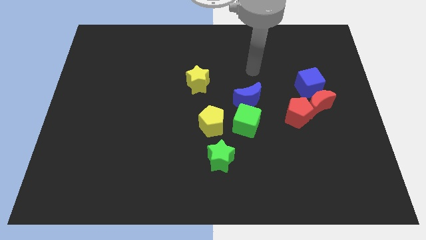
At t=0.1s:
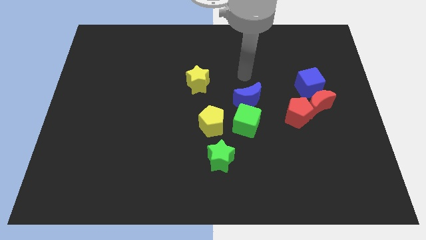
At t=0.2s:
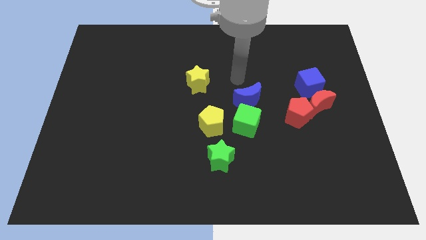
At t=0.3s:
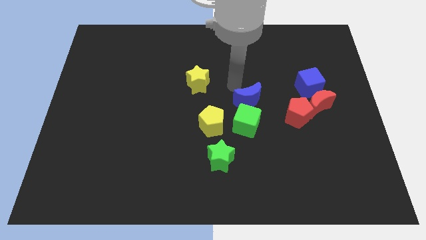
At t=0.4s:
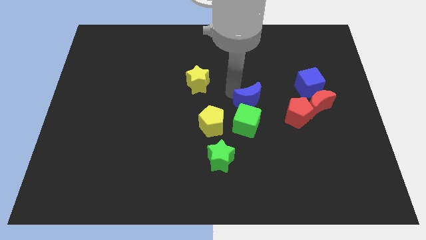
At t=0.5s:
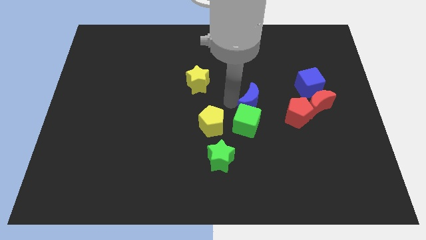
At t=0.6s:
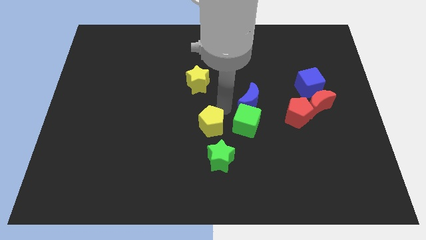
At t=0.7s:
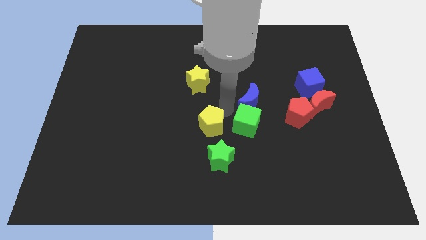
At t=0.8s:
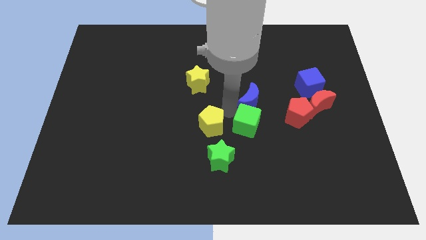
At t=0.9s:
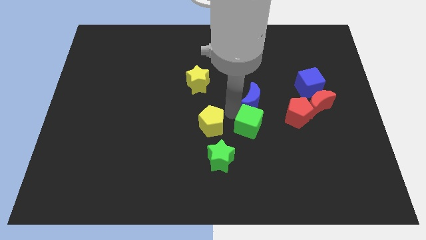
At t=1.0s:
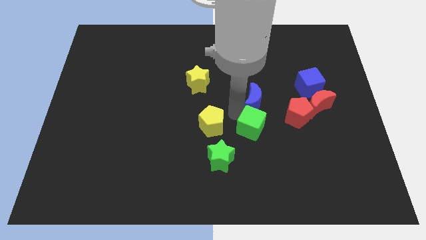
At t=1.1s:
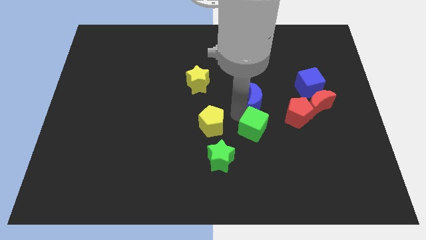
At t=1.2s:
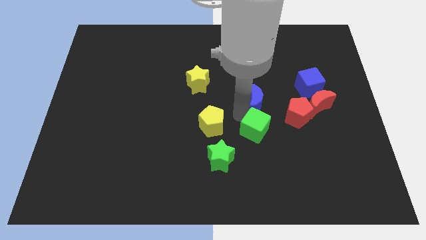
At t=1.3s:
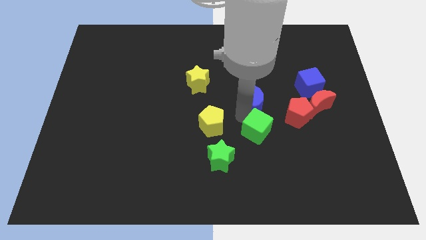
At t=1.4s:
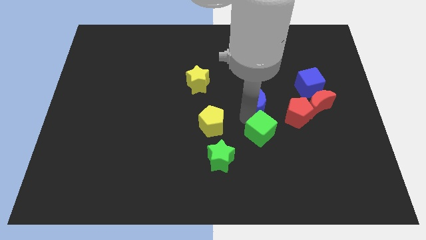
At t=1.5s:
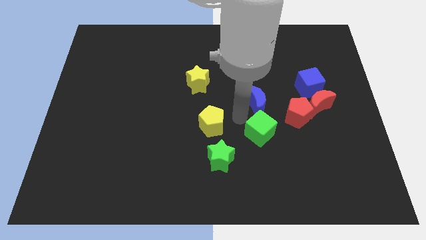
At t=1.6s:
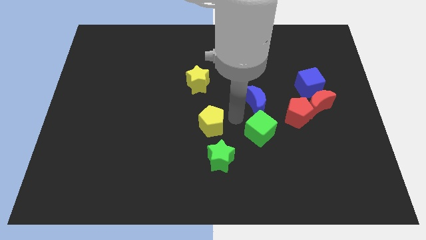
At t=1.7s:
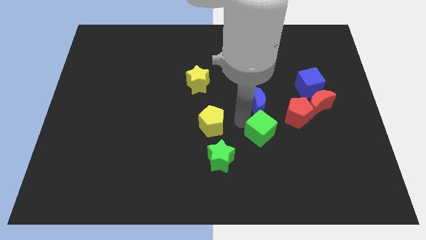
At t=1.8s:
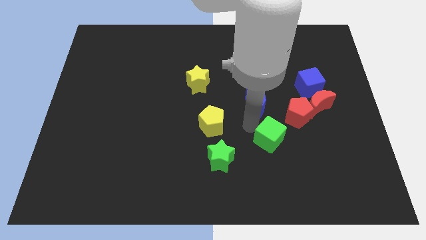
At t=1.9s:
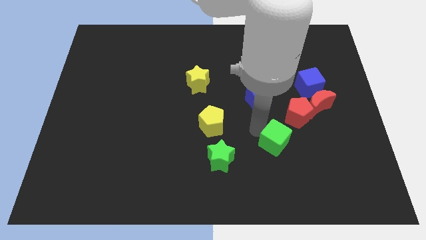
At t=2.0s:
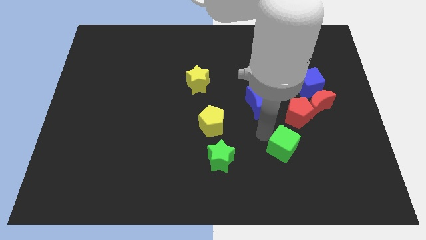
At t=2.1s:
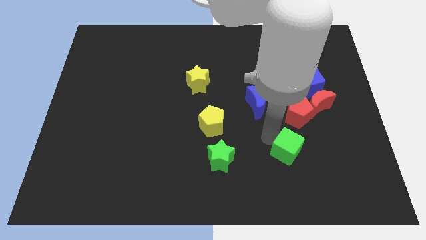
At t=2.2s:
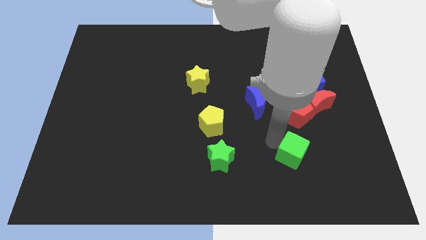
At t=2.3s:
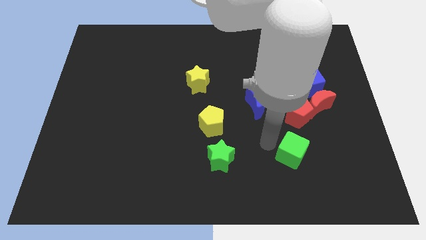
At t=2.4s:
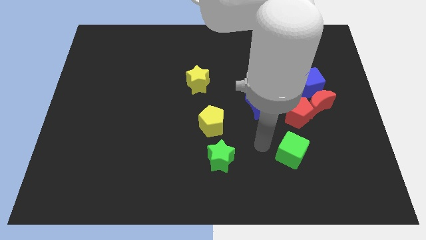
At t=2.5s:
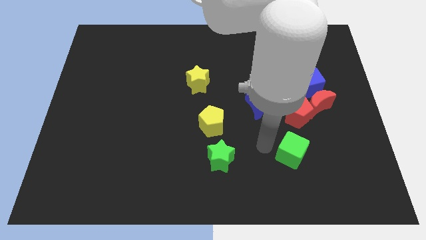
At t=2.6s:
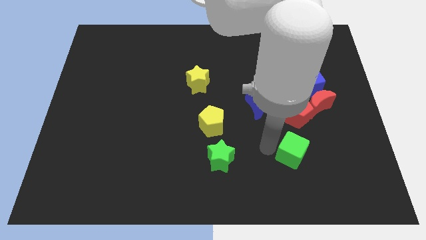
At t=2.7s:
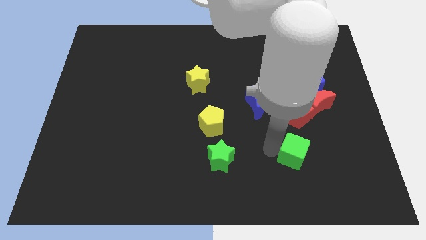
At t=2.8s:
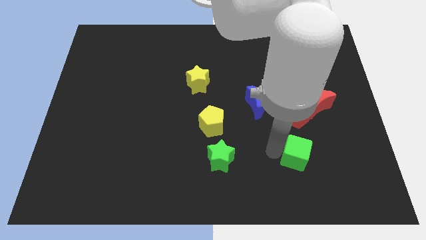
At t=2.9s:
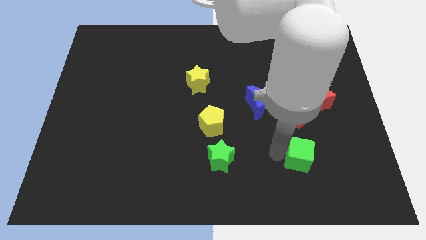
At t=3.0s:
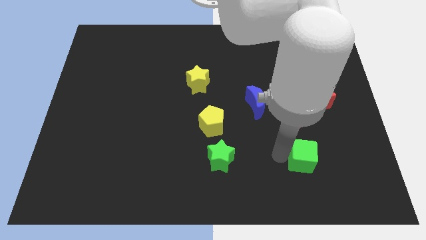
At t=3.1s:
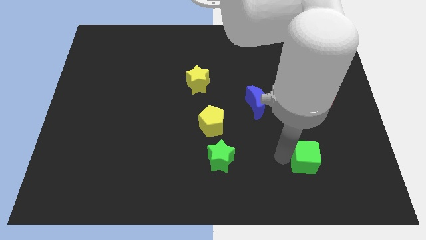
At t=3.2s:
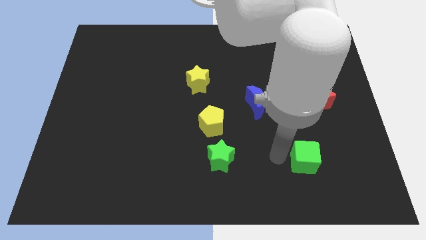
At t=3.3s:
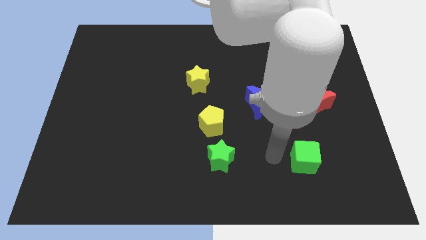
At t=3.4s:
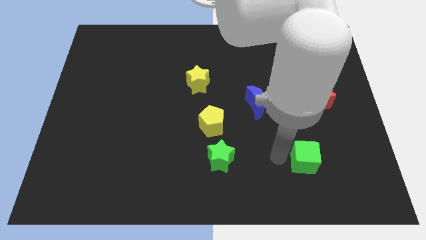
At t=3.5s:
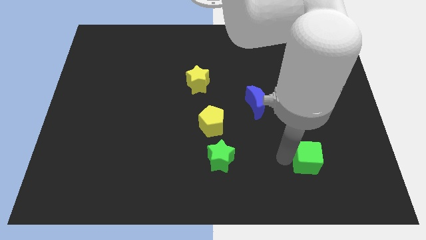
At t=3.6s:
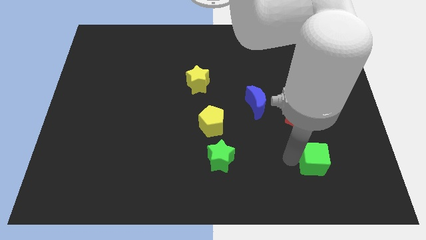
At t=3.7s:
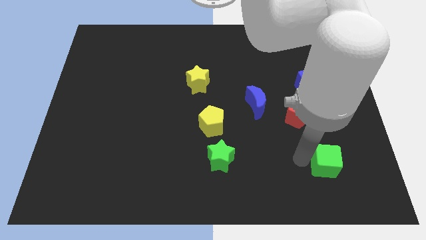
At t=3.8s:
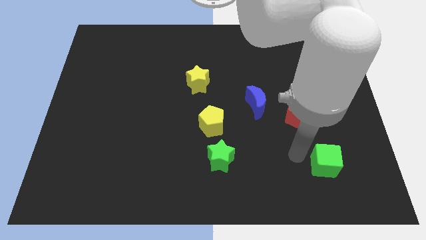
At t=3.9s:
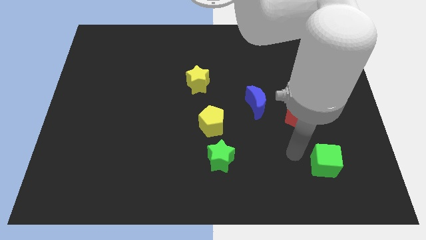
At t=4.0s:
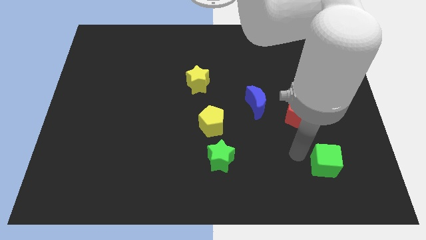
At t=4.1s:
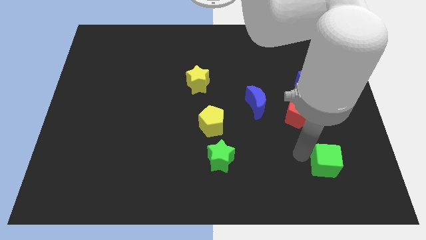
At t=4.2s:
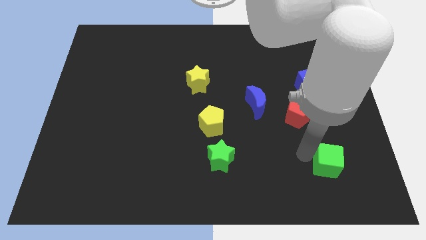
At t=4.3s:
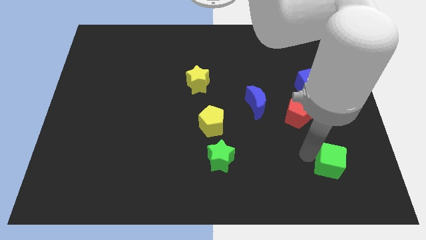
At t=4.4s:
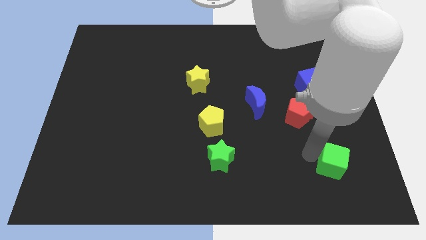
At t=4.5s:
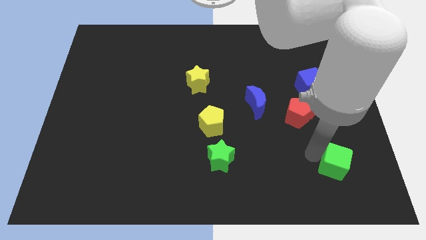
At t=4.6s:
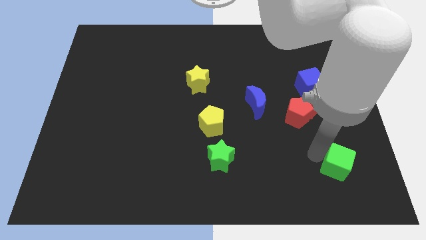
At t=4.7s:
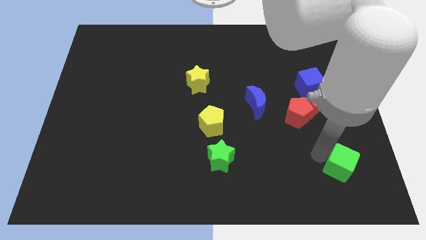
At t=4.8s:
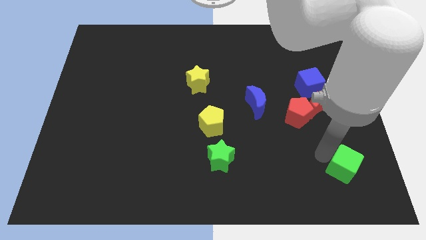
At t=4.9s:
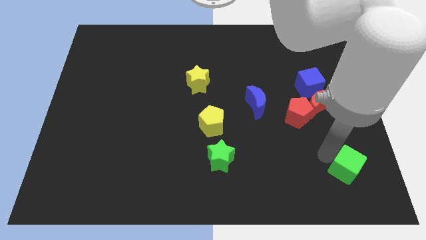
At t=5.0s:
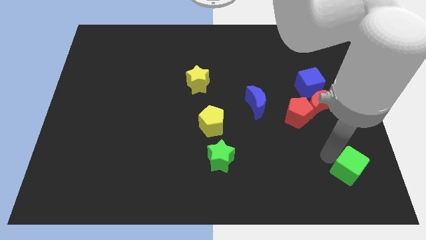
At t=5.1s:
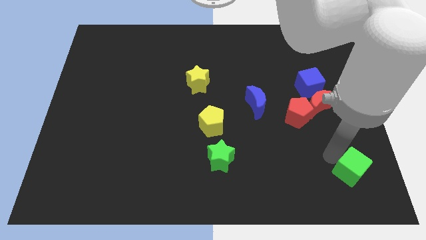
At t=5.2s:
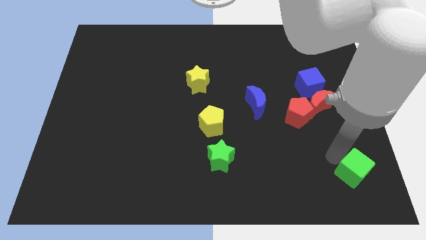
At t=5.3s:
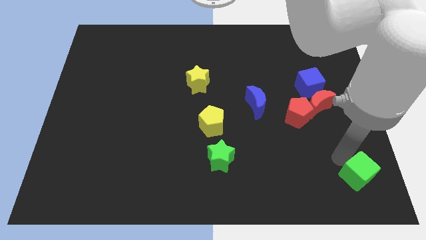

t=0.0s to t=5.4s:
slide the green cube to the bottom right corner

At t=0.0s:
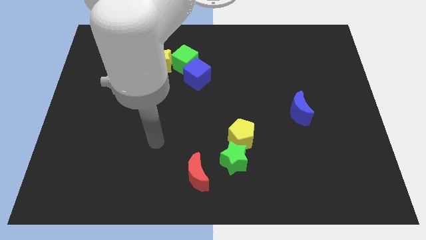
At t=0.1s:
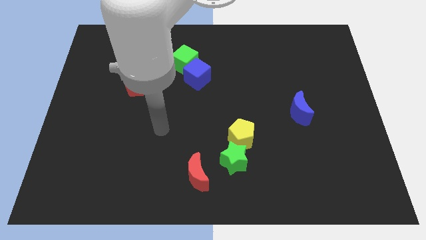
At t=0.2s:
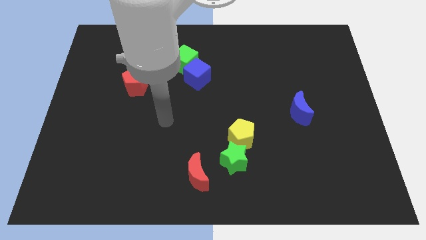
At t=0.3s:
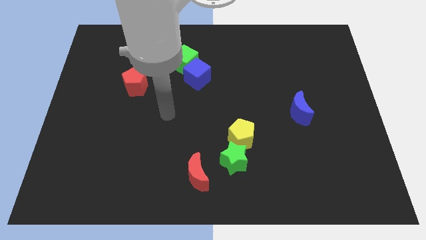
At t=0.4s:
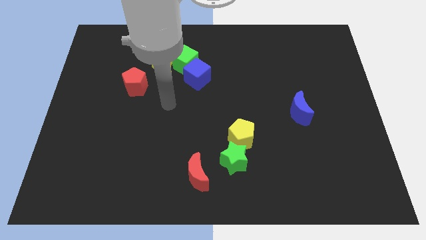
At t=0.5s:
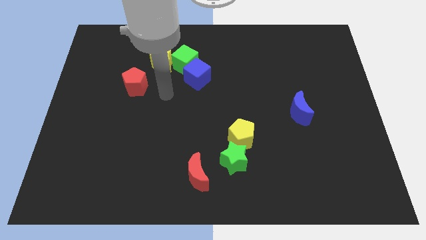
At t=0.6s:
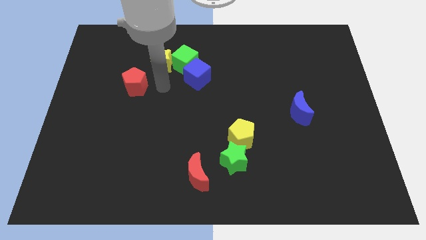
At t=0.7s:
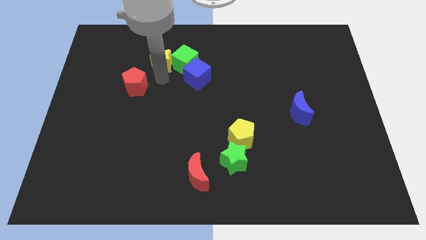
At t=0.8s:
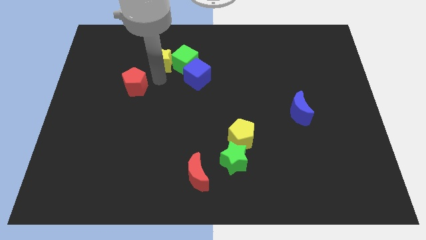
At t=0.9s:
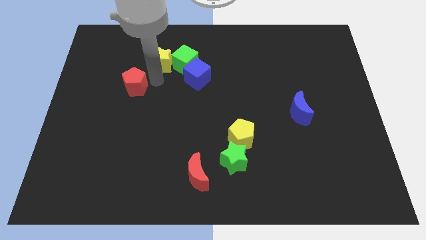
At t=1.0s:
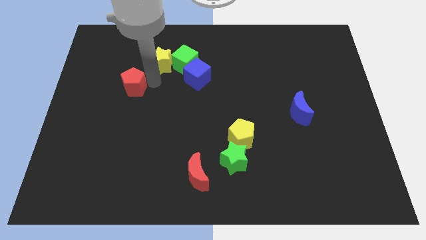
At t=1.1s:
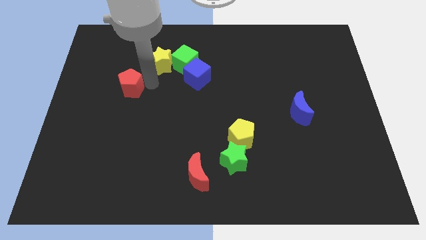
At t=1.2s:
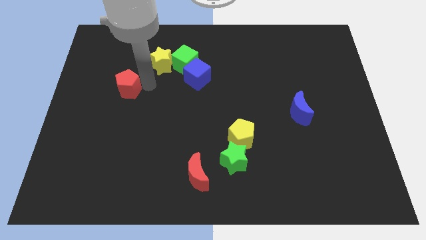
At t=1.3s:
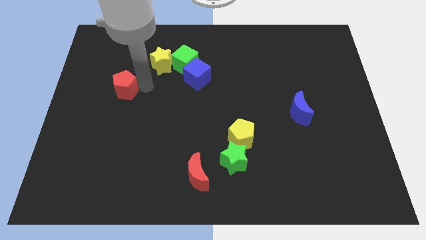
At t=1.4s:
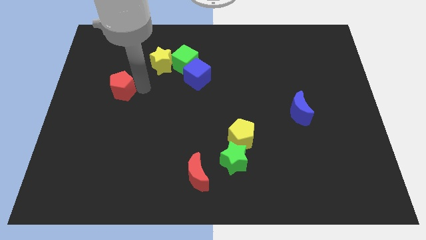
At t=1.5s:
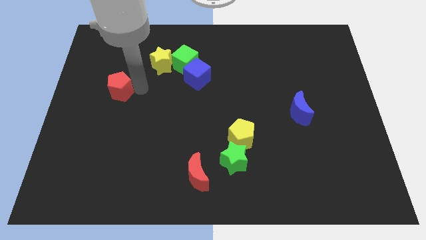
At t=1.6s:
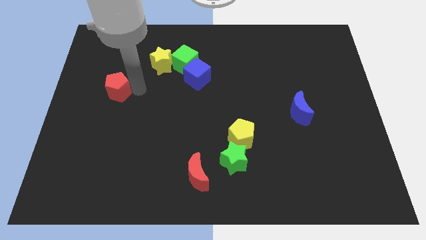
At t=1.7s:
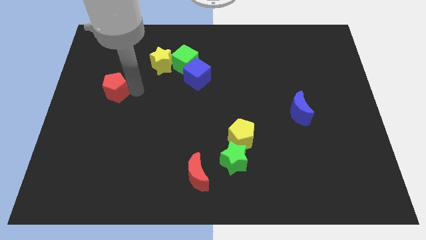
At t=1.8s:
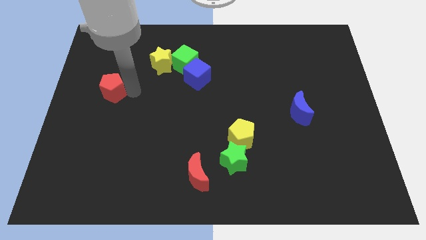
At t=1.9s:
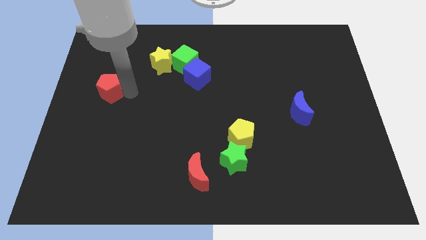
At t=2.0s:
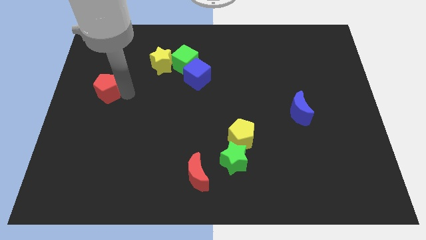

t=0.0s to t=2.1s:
move the red pentagon to the left side of the board

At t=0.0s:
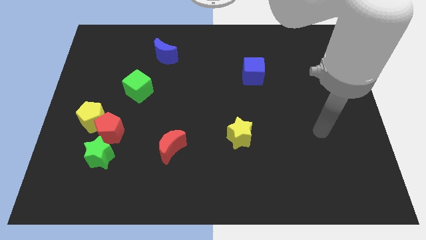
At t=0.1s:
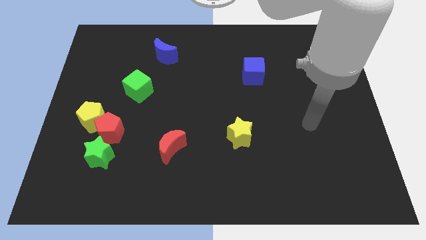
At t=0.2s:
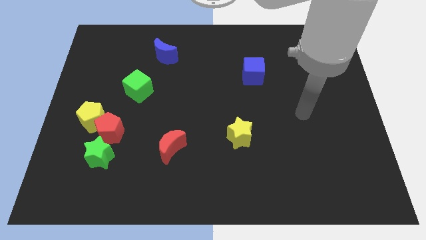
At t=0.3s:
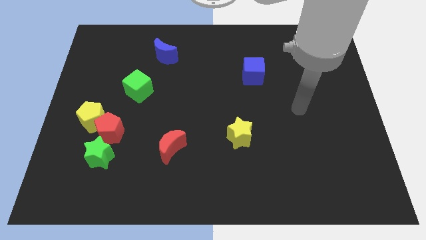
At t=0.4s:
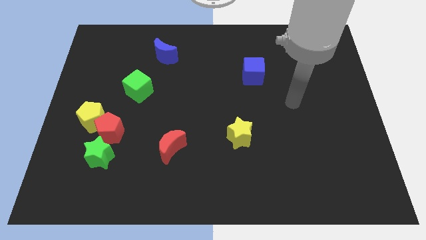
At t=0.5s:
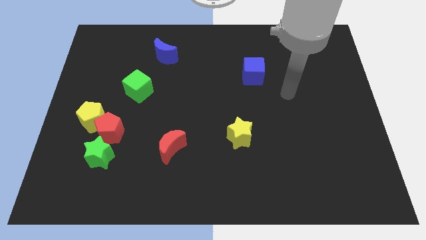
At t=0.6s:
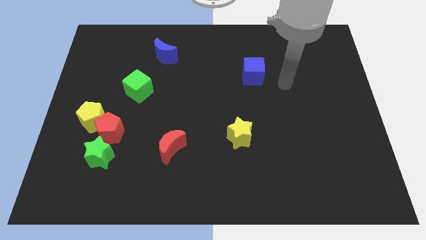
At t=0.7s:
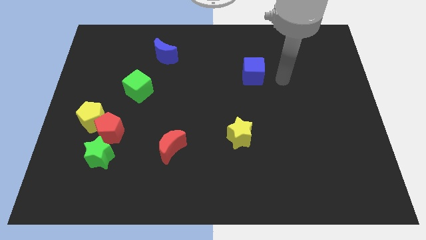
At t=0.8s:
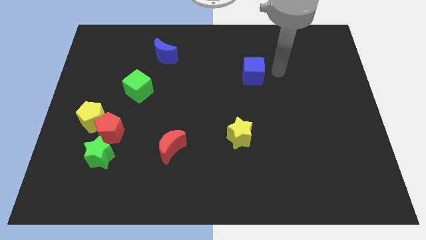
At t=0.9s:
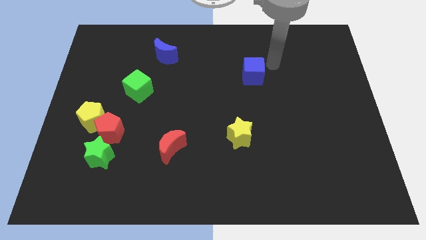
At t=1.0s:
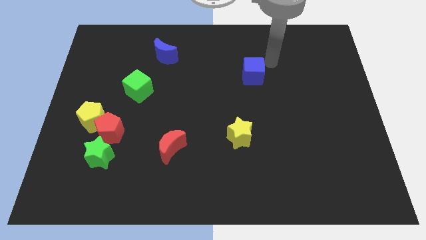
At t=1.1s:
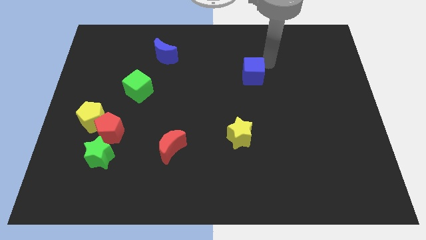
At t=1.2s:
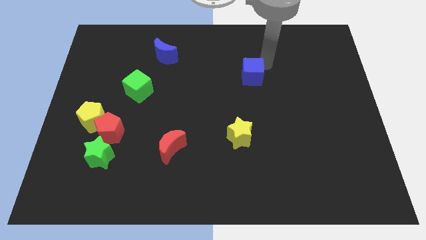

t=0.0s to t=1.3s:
move the blue cube to the middle
